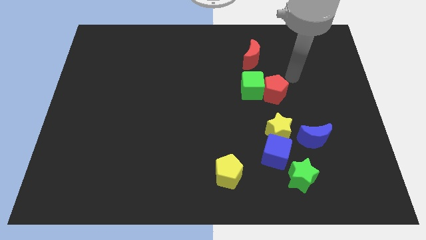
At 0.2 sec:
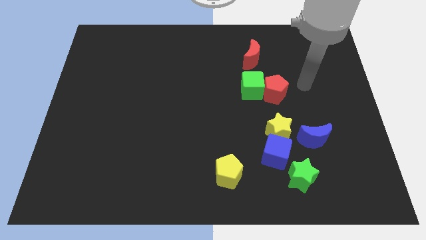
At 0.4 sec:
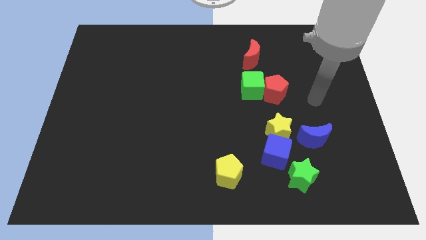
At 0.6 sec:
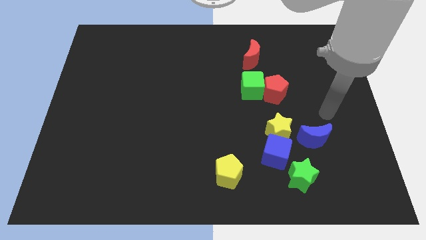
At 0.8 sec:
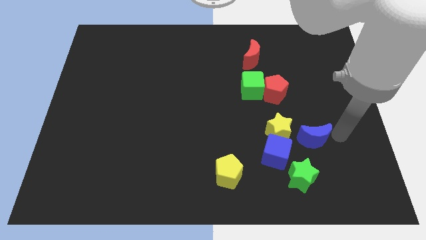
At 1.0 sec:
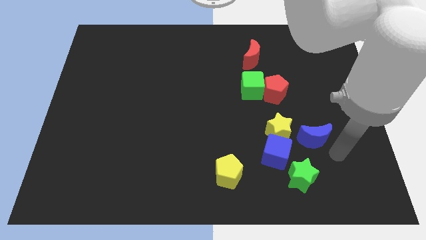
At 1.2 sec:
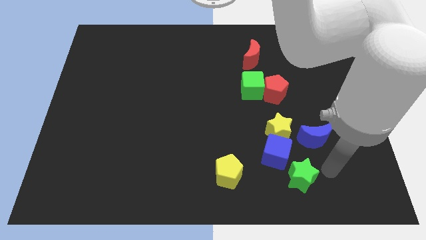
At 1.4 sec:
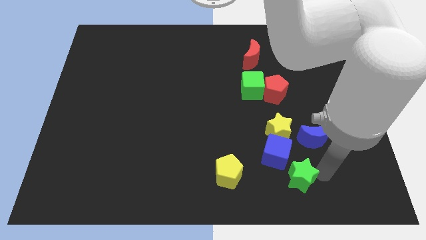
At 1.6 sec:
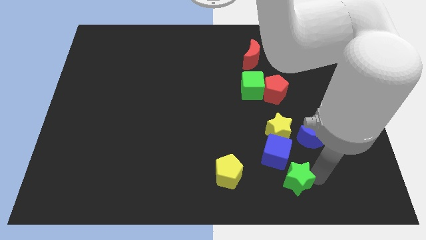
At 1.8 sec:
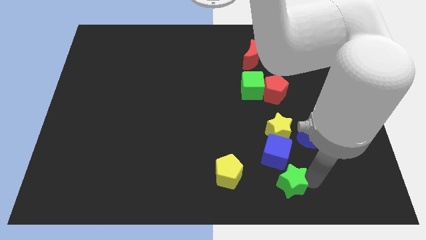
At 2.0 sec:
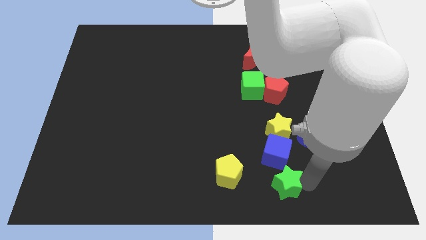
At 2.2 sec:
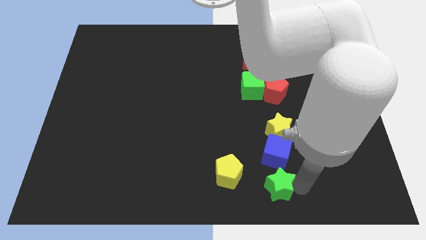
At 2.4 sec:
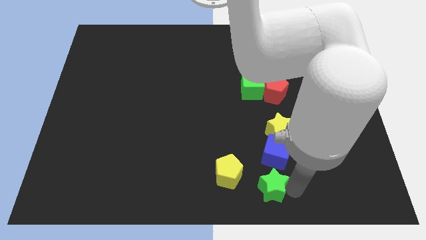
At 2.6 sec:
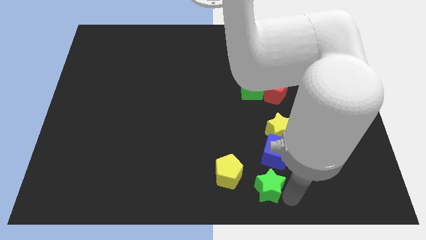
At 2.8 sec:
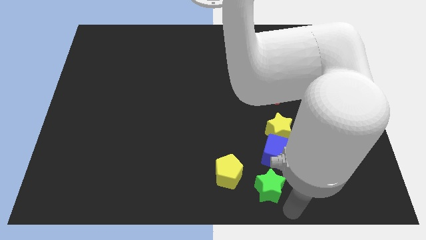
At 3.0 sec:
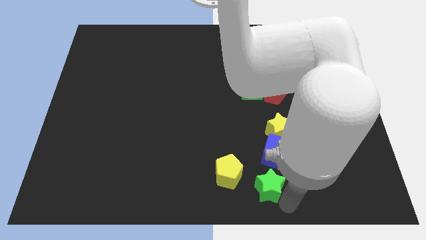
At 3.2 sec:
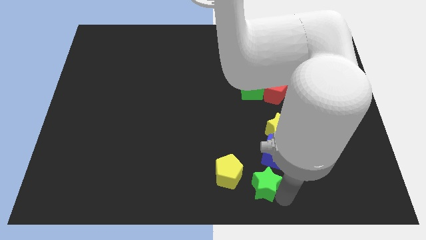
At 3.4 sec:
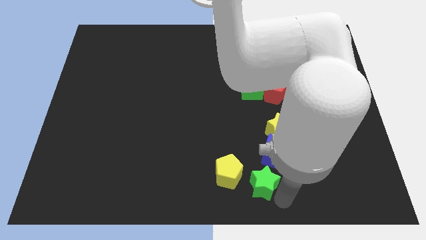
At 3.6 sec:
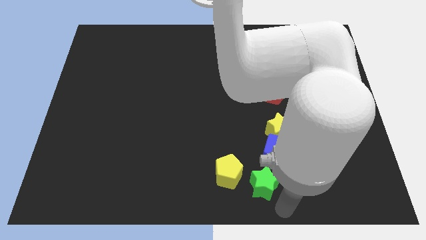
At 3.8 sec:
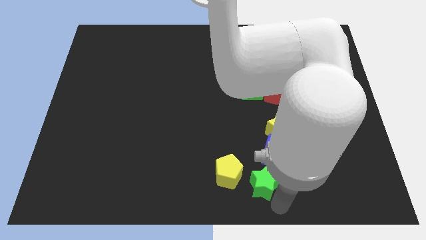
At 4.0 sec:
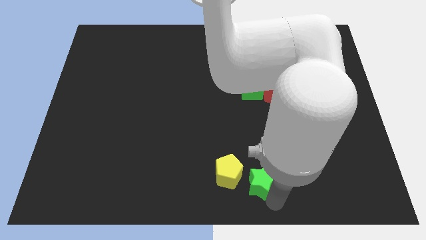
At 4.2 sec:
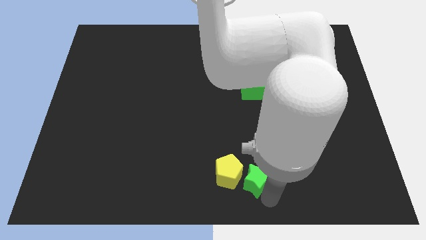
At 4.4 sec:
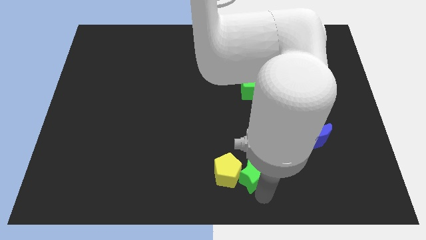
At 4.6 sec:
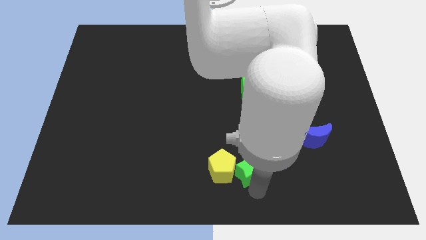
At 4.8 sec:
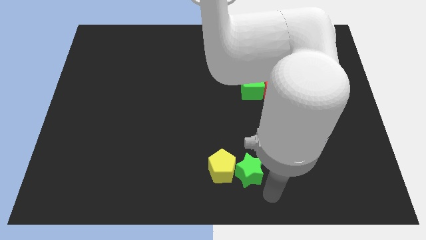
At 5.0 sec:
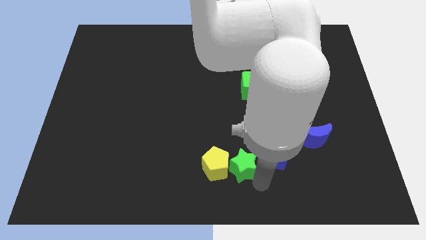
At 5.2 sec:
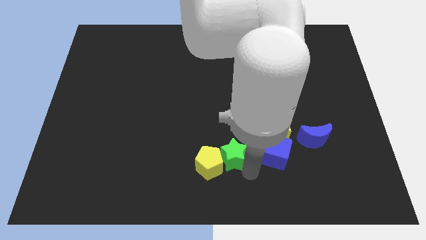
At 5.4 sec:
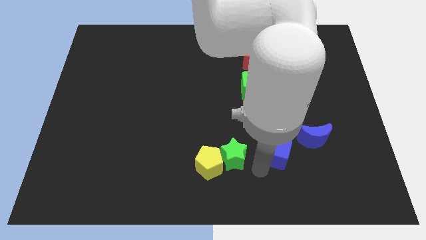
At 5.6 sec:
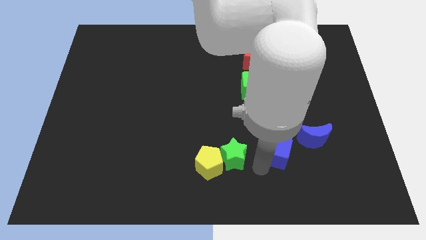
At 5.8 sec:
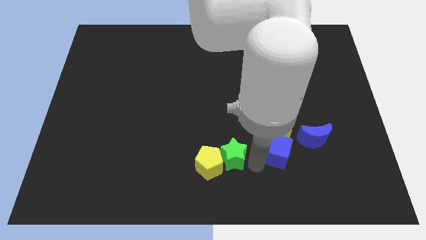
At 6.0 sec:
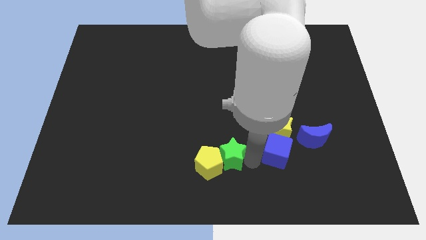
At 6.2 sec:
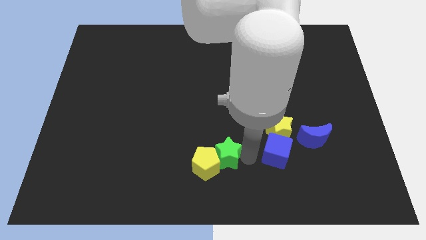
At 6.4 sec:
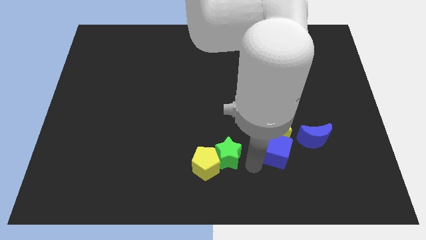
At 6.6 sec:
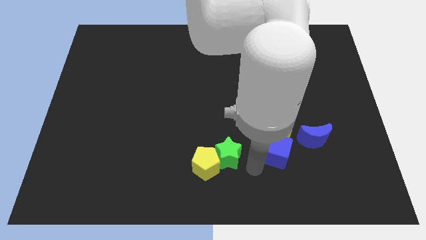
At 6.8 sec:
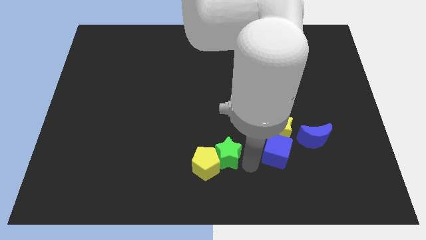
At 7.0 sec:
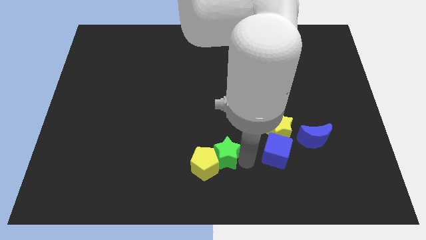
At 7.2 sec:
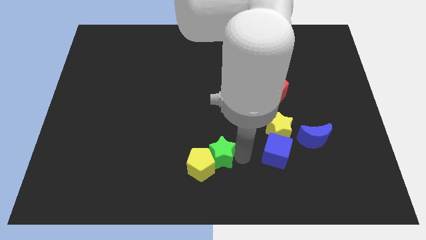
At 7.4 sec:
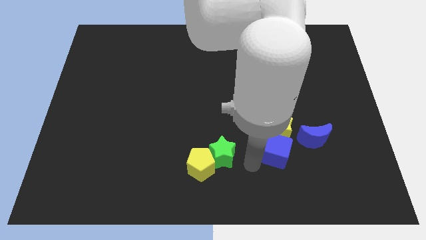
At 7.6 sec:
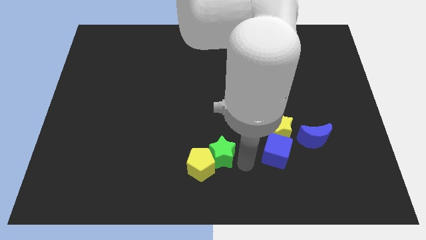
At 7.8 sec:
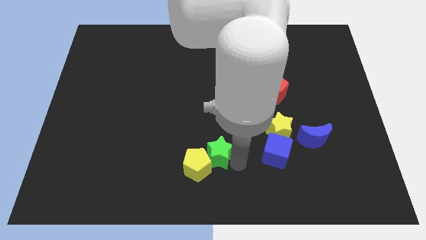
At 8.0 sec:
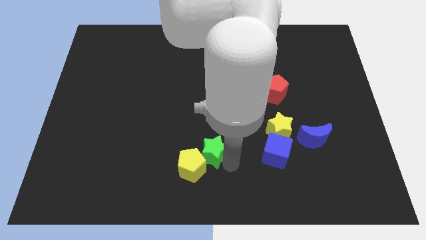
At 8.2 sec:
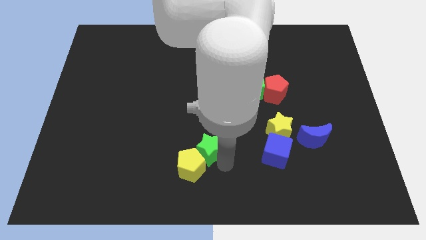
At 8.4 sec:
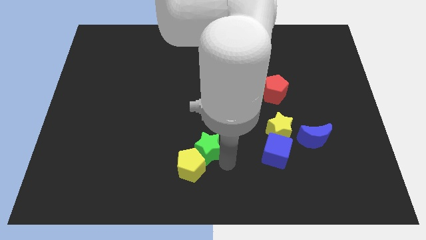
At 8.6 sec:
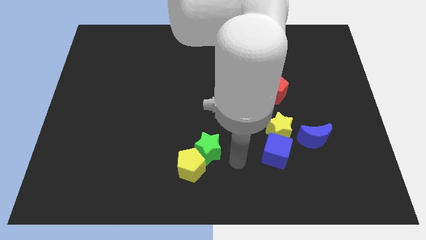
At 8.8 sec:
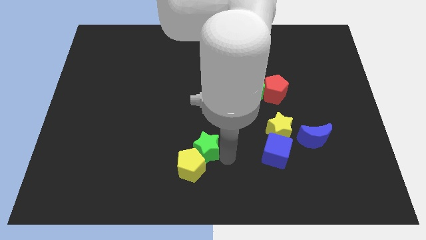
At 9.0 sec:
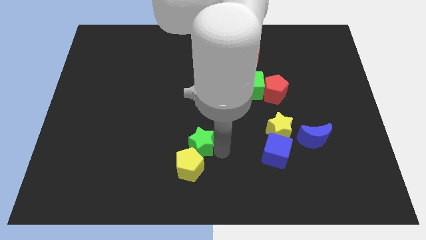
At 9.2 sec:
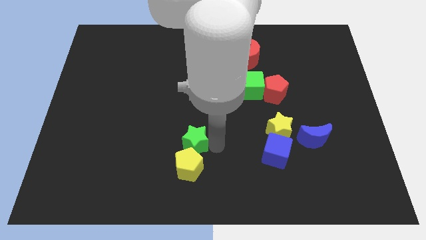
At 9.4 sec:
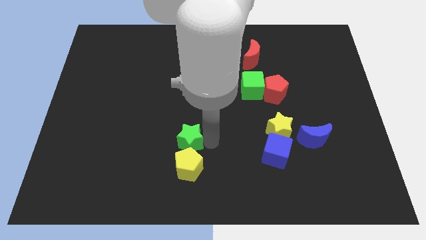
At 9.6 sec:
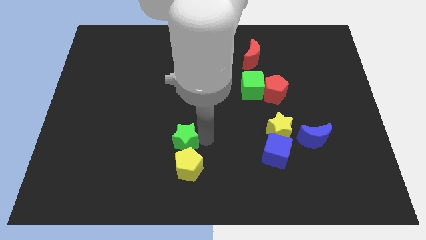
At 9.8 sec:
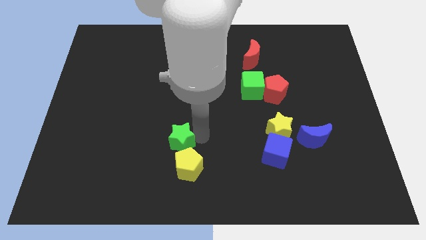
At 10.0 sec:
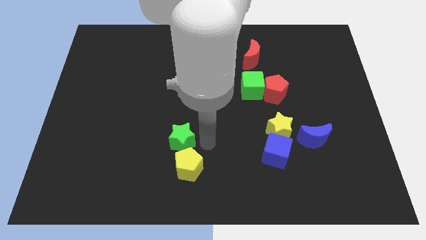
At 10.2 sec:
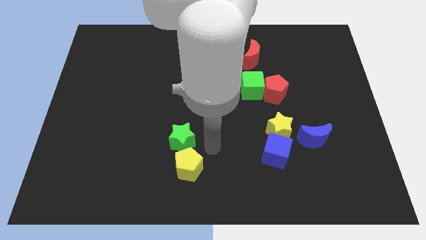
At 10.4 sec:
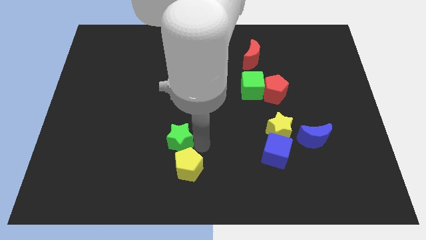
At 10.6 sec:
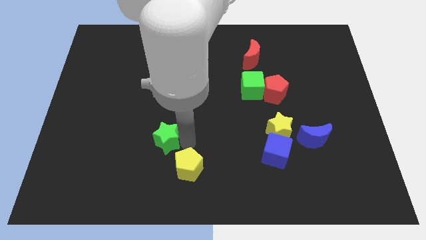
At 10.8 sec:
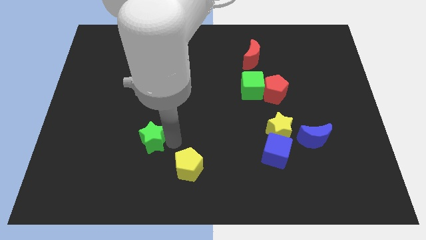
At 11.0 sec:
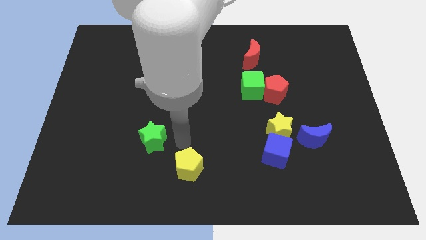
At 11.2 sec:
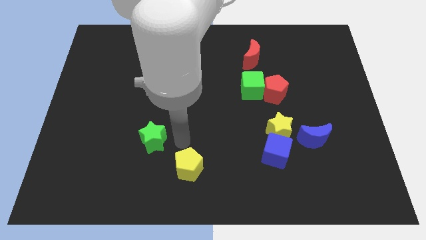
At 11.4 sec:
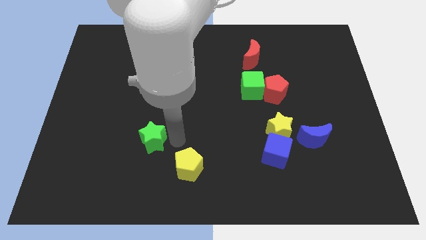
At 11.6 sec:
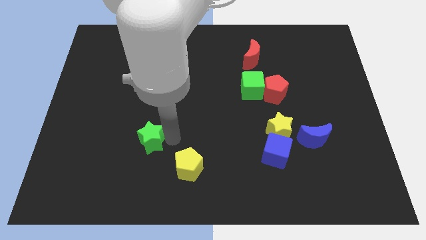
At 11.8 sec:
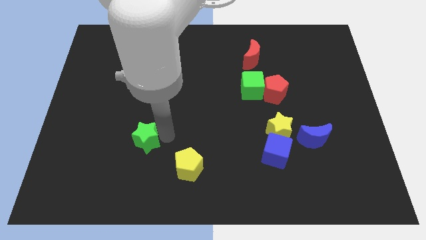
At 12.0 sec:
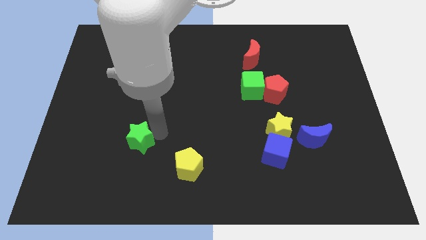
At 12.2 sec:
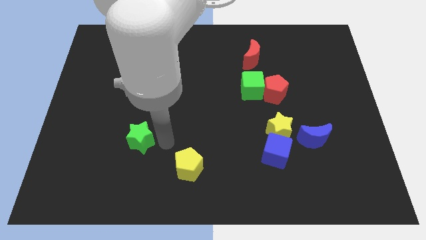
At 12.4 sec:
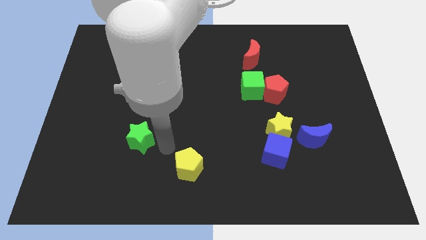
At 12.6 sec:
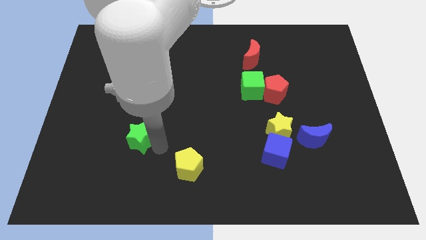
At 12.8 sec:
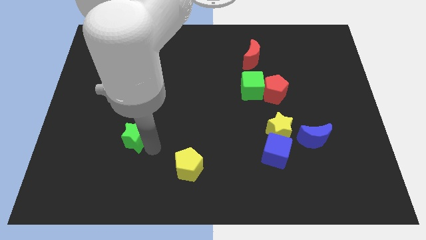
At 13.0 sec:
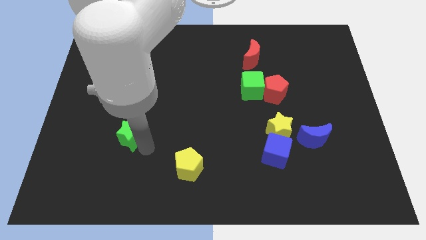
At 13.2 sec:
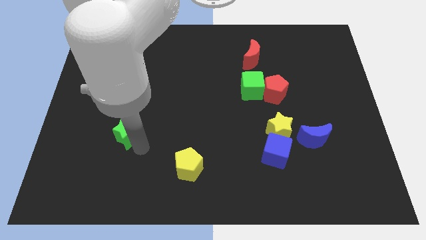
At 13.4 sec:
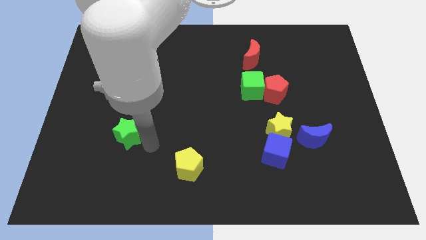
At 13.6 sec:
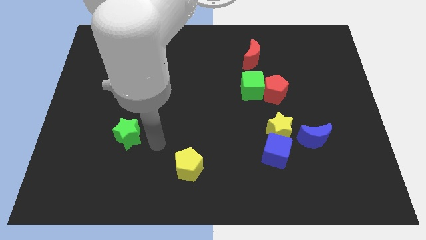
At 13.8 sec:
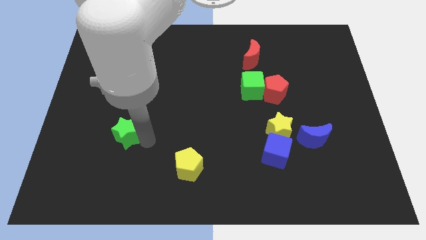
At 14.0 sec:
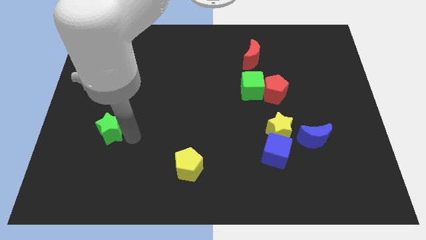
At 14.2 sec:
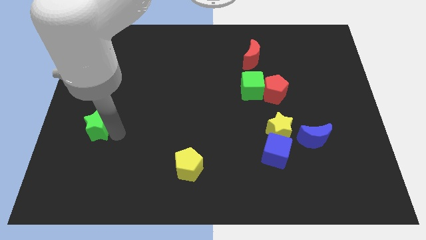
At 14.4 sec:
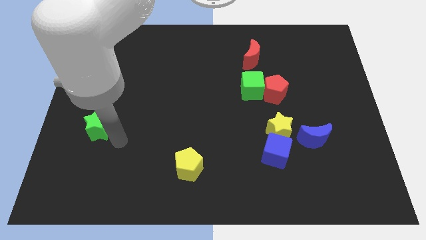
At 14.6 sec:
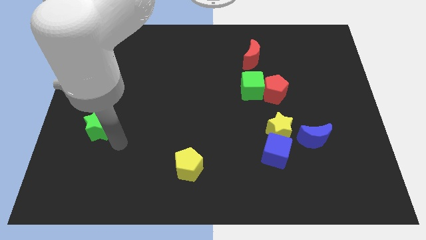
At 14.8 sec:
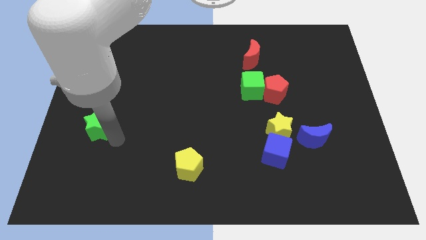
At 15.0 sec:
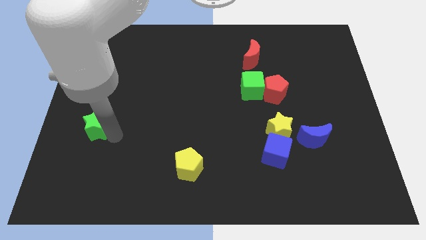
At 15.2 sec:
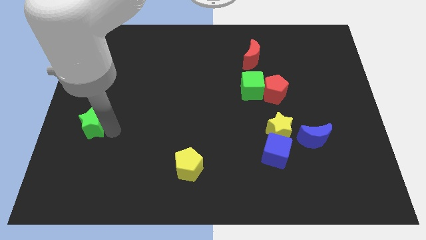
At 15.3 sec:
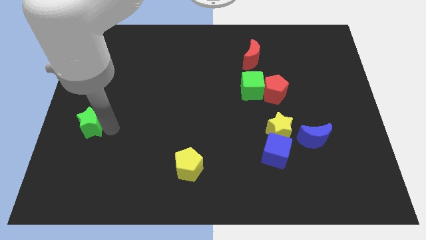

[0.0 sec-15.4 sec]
move the green star to the center left
